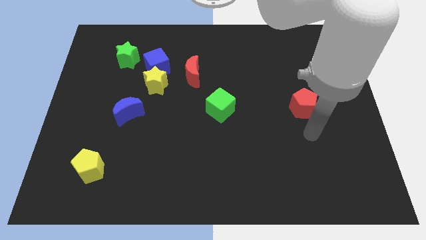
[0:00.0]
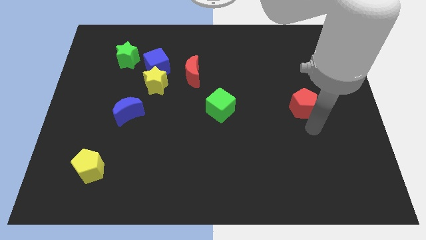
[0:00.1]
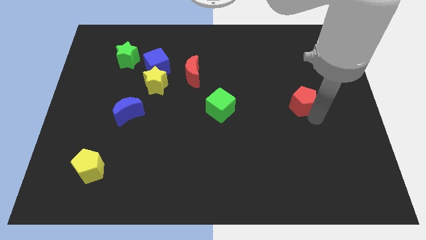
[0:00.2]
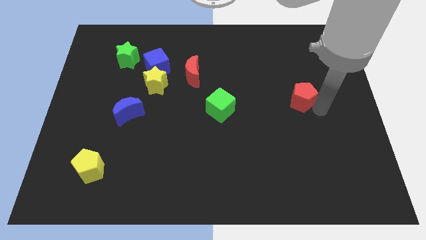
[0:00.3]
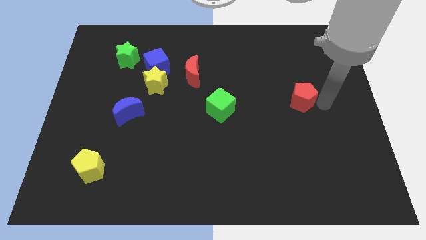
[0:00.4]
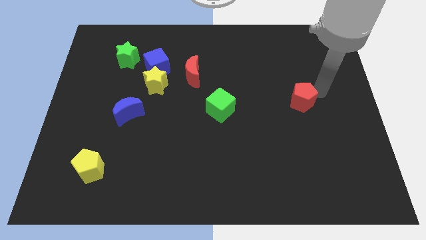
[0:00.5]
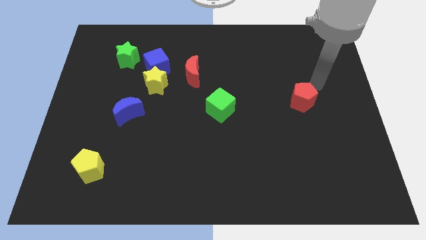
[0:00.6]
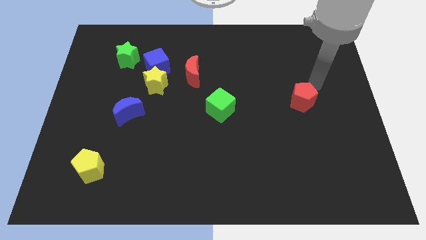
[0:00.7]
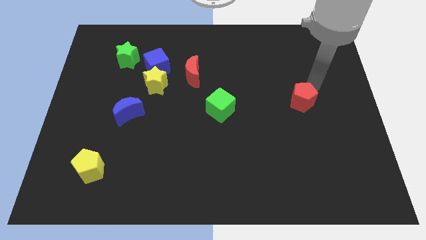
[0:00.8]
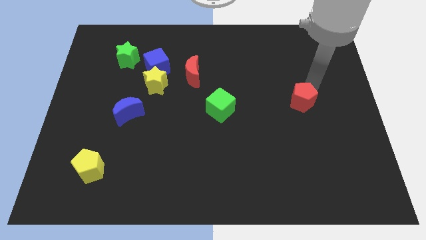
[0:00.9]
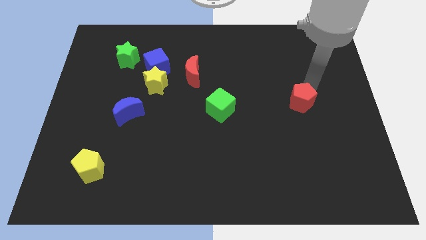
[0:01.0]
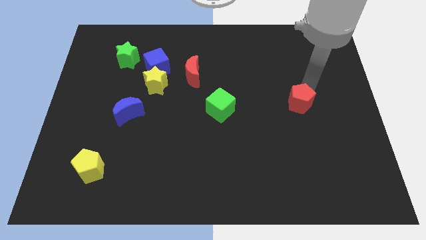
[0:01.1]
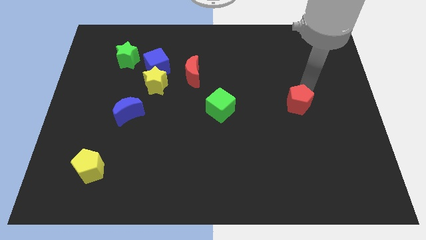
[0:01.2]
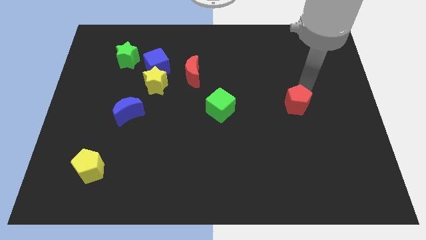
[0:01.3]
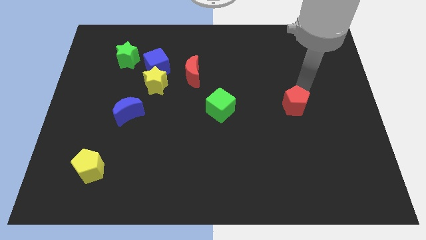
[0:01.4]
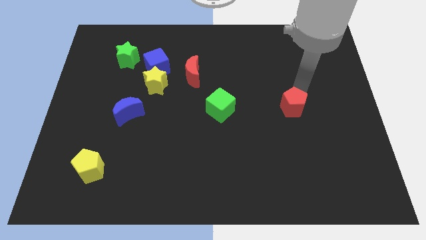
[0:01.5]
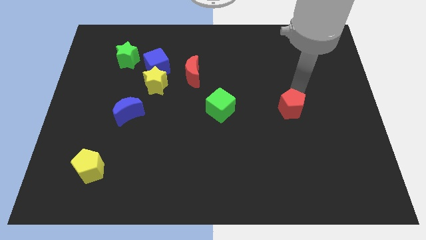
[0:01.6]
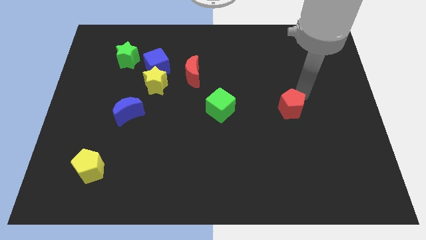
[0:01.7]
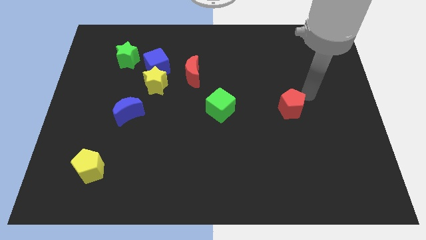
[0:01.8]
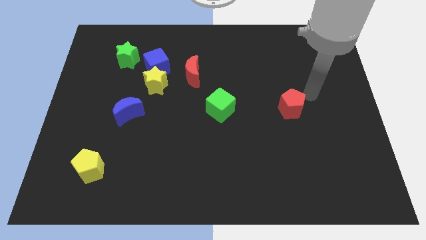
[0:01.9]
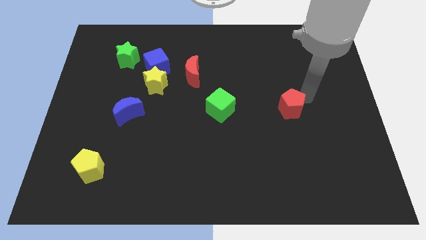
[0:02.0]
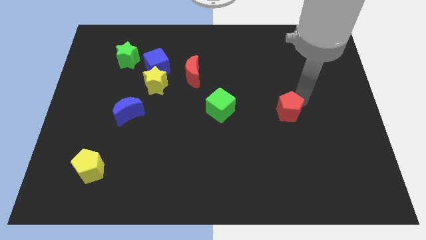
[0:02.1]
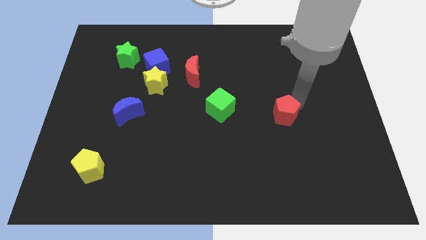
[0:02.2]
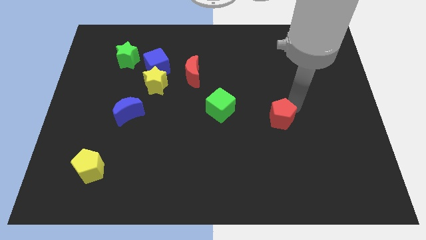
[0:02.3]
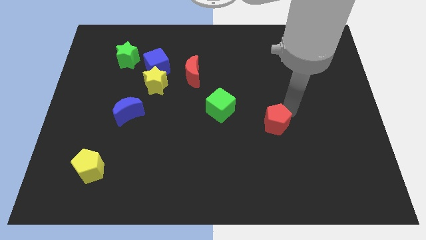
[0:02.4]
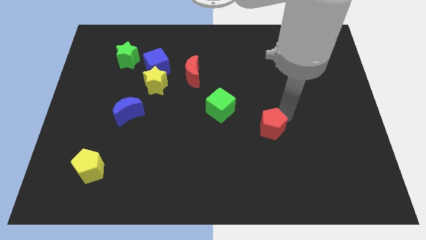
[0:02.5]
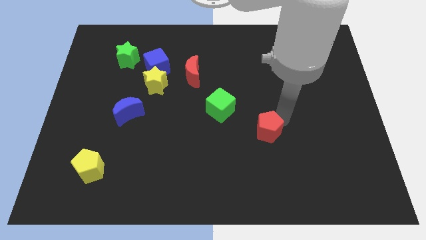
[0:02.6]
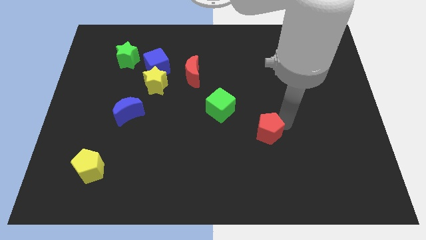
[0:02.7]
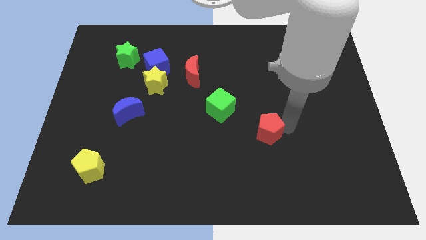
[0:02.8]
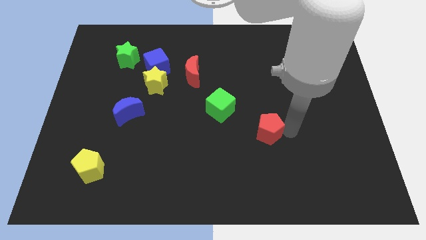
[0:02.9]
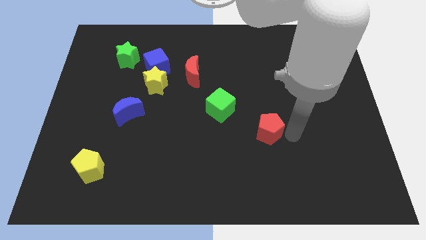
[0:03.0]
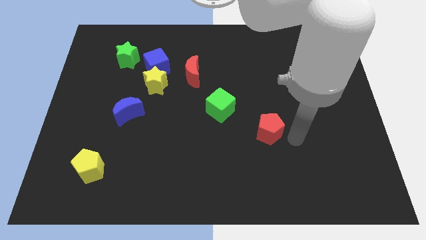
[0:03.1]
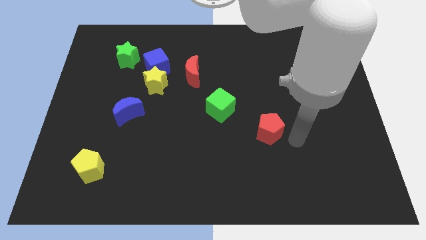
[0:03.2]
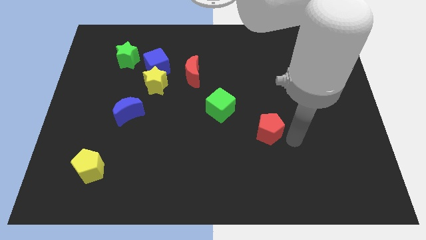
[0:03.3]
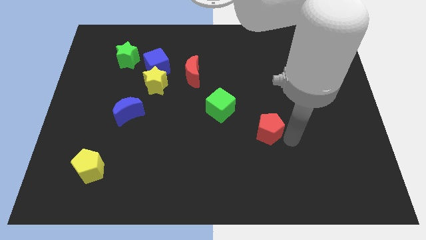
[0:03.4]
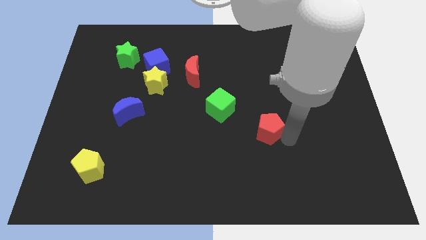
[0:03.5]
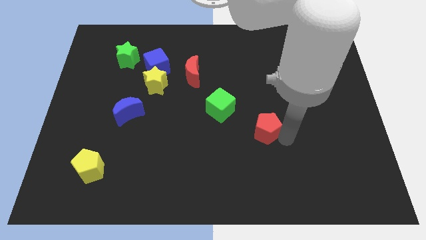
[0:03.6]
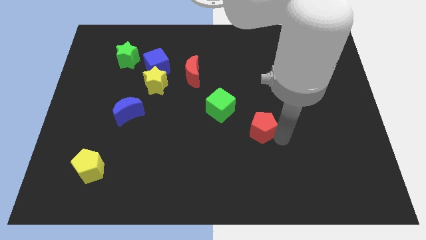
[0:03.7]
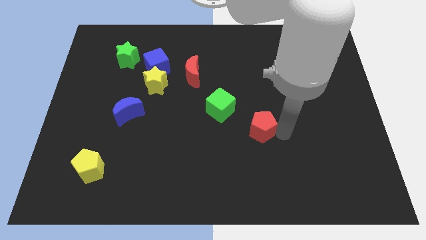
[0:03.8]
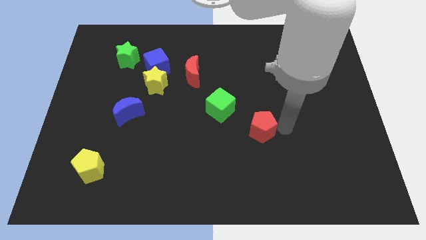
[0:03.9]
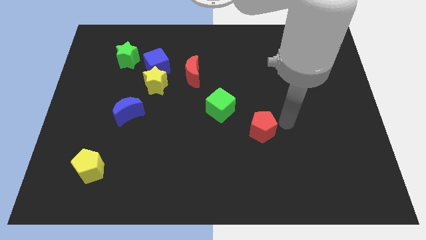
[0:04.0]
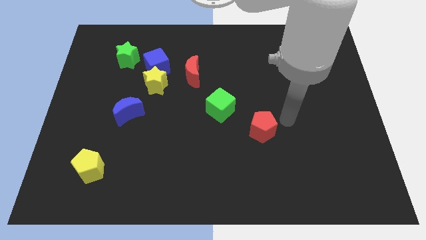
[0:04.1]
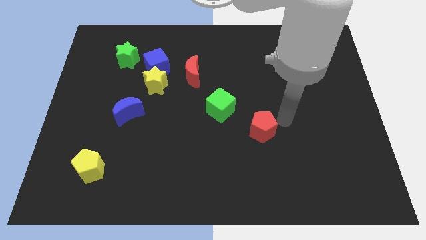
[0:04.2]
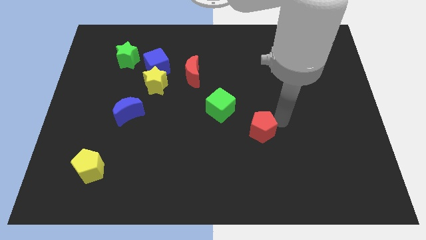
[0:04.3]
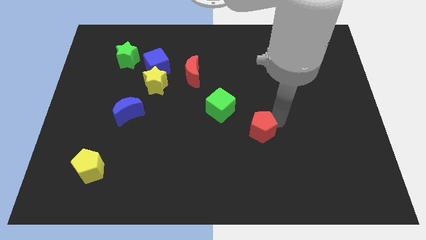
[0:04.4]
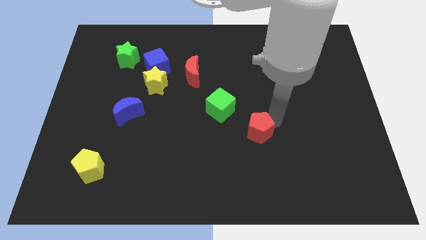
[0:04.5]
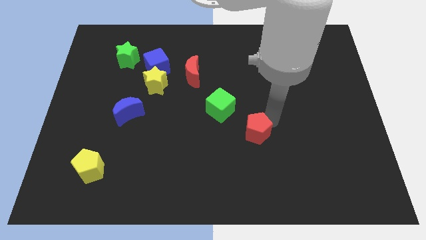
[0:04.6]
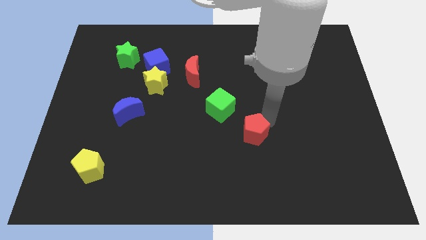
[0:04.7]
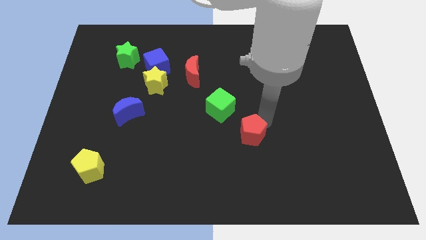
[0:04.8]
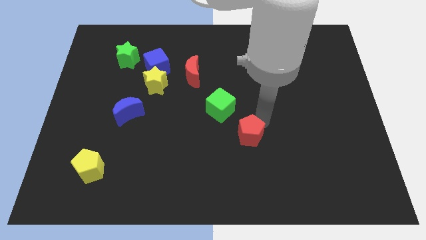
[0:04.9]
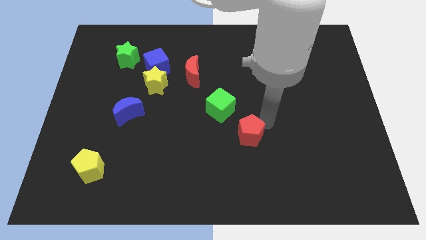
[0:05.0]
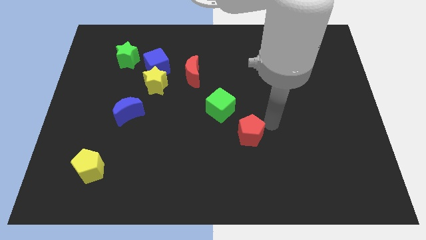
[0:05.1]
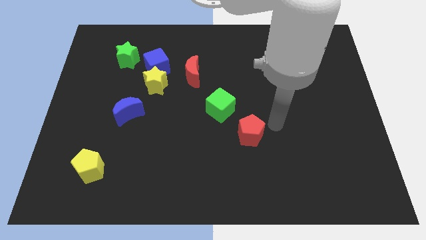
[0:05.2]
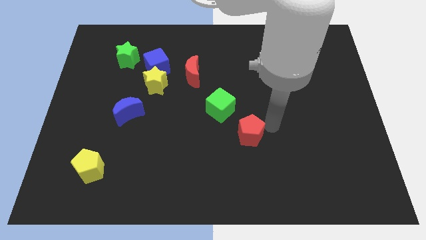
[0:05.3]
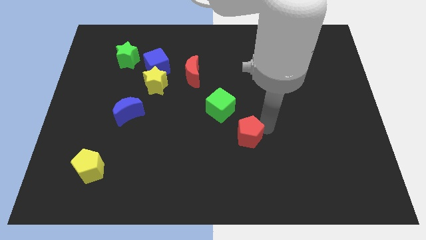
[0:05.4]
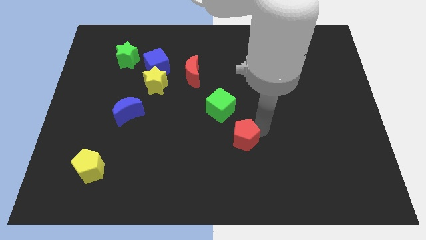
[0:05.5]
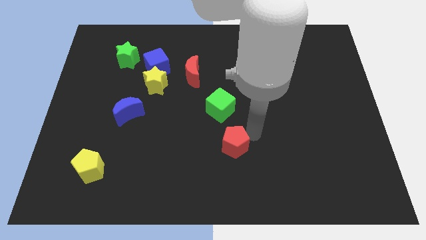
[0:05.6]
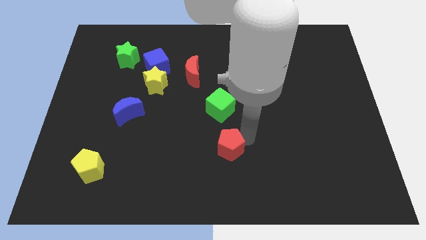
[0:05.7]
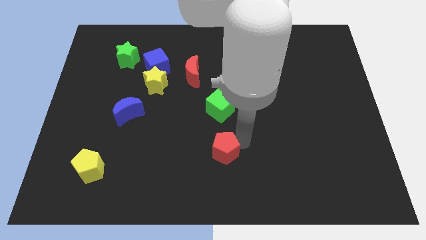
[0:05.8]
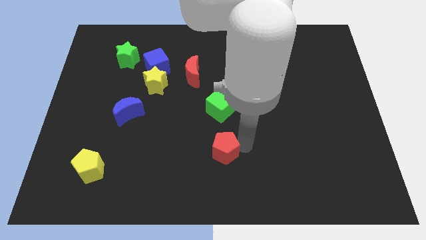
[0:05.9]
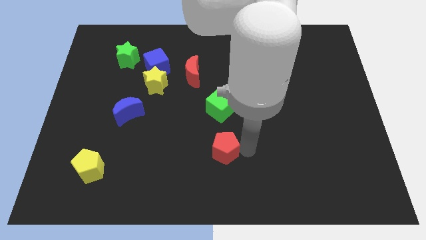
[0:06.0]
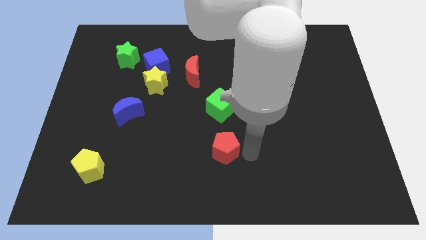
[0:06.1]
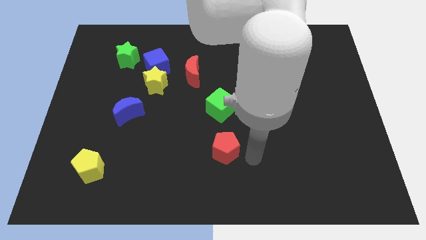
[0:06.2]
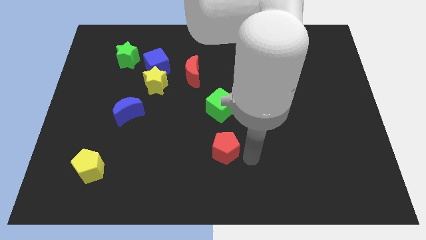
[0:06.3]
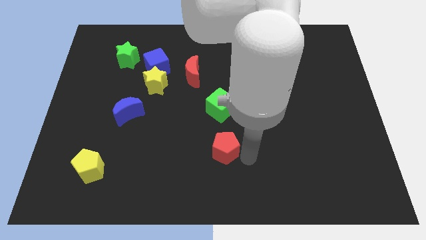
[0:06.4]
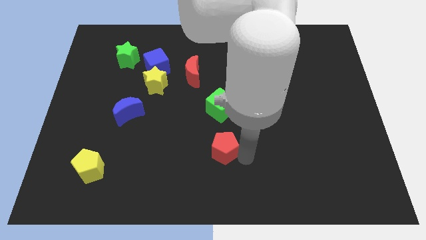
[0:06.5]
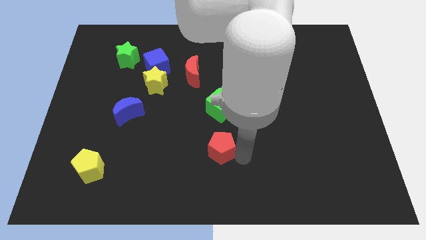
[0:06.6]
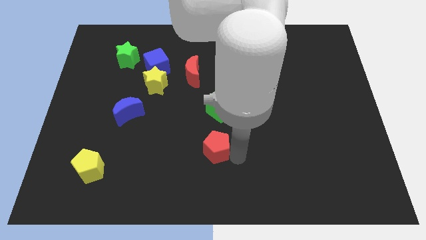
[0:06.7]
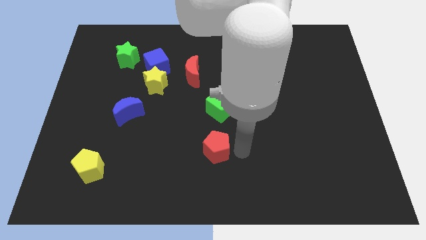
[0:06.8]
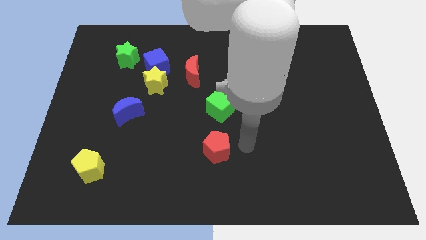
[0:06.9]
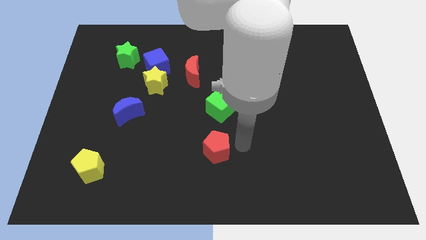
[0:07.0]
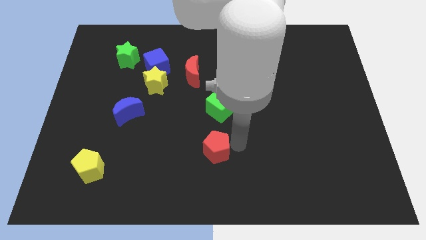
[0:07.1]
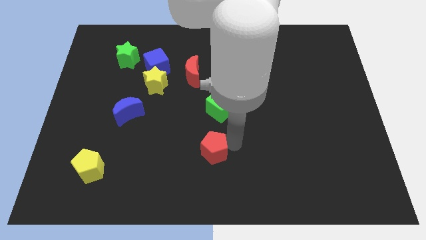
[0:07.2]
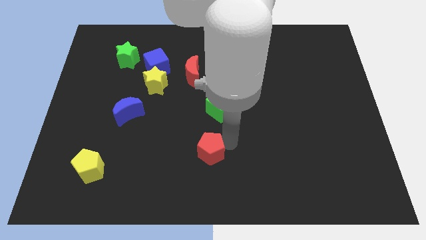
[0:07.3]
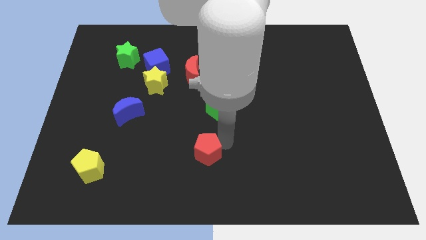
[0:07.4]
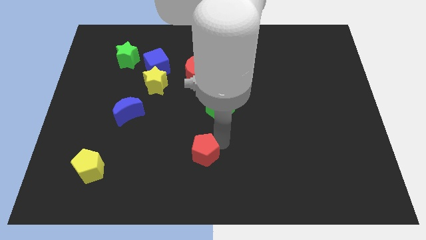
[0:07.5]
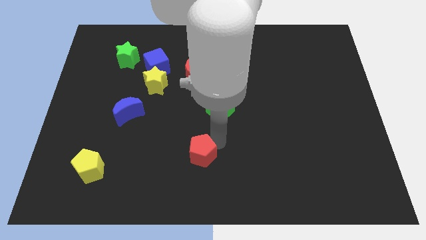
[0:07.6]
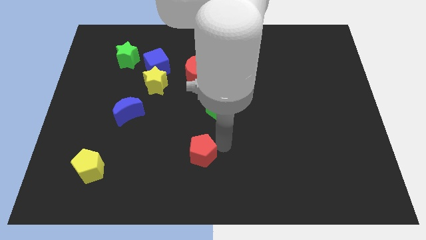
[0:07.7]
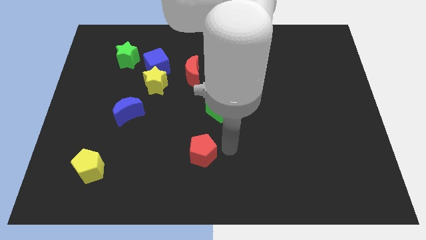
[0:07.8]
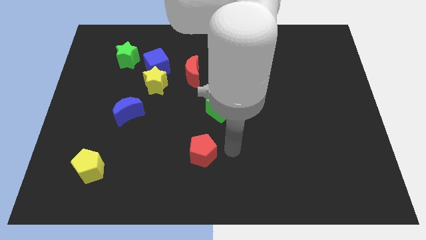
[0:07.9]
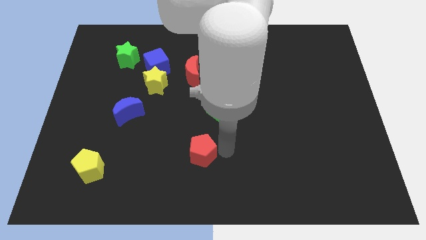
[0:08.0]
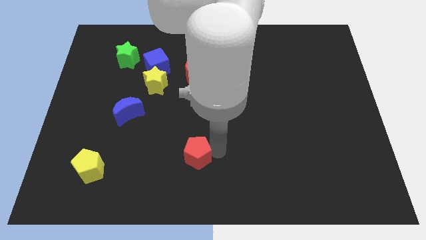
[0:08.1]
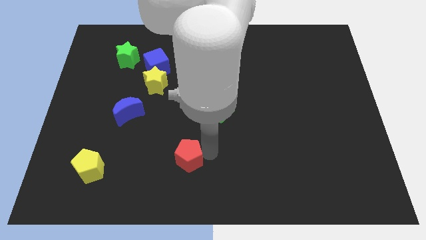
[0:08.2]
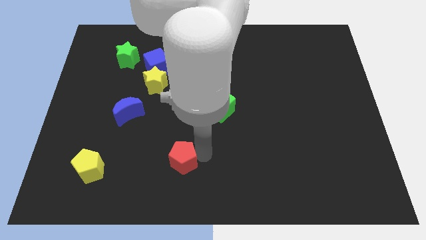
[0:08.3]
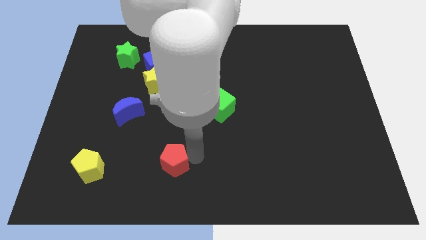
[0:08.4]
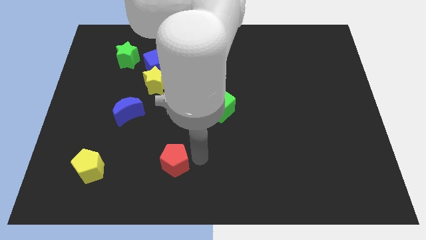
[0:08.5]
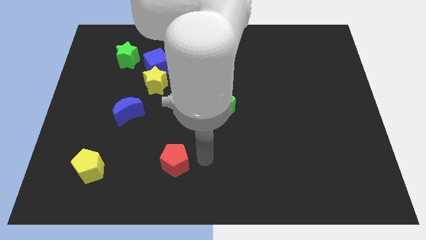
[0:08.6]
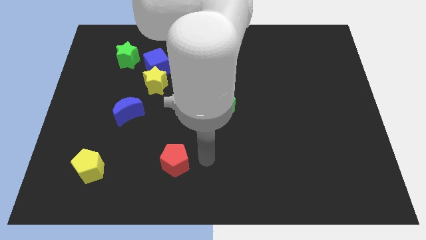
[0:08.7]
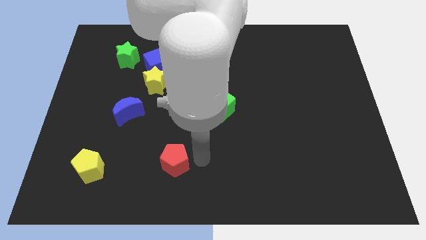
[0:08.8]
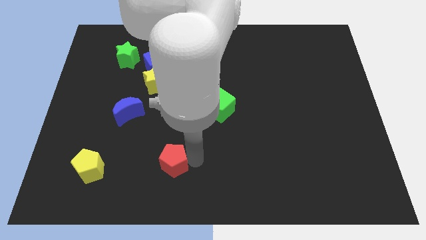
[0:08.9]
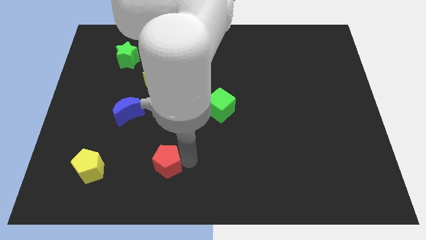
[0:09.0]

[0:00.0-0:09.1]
move the red pentagon right of the yellow pentagon
